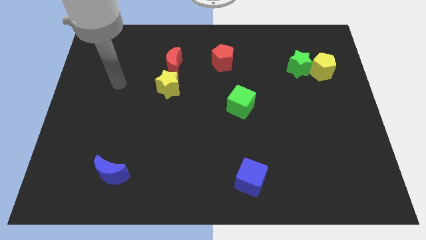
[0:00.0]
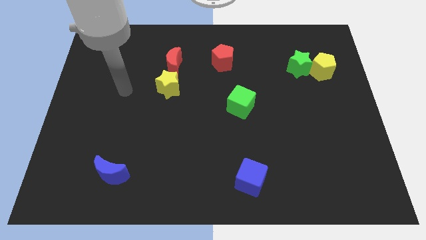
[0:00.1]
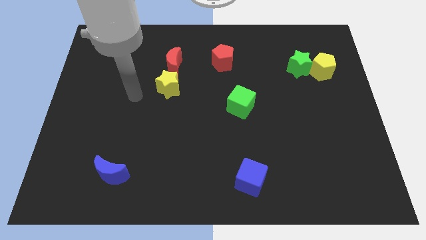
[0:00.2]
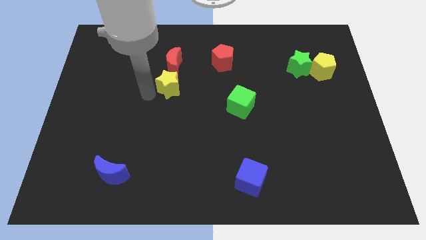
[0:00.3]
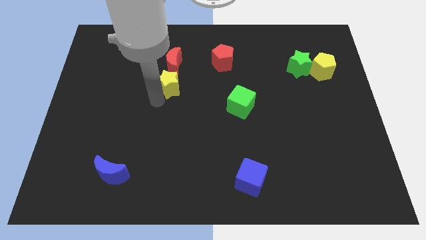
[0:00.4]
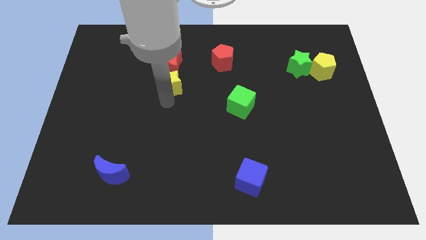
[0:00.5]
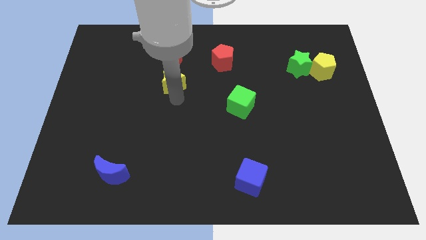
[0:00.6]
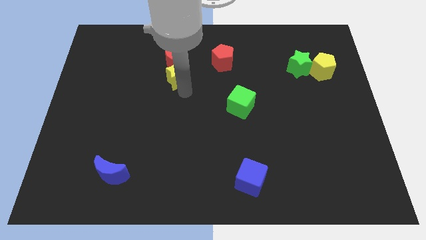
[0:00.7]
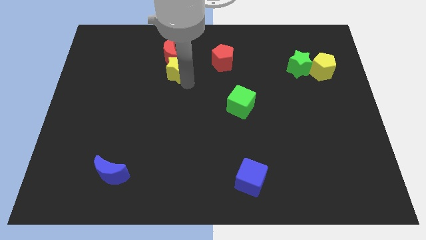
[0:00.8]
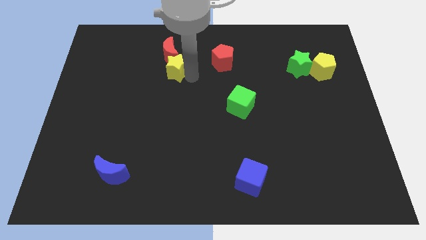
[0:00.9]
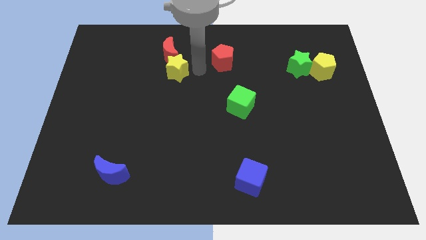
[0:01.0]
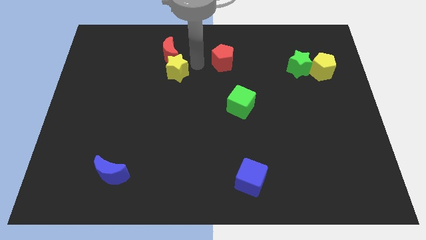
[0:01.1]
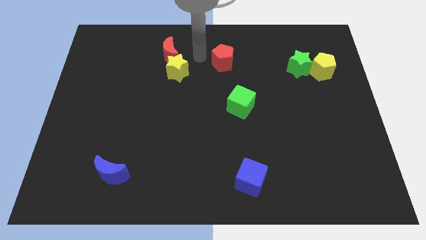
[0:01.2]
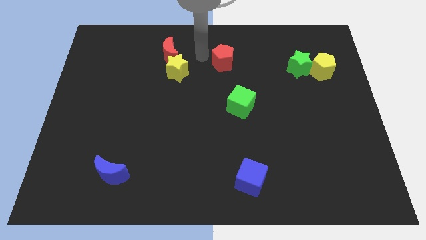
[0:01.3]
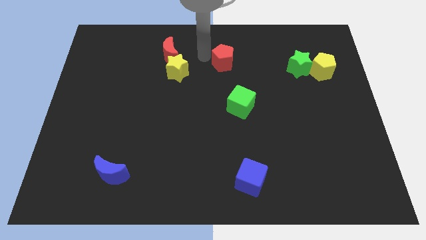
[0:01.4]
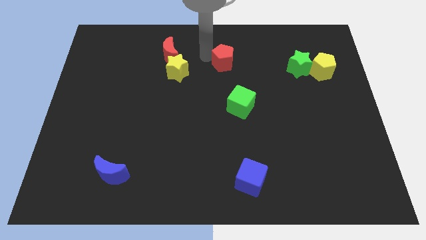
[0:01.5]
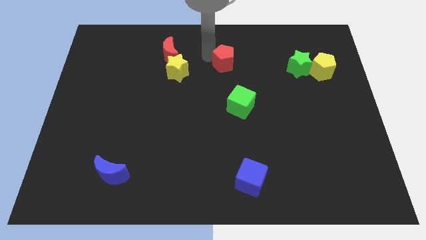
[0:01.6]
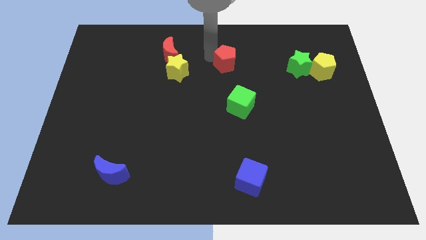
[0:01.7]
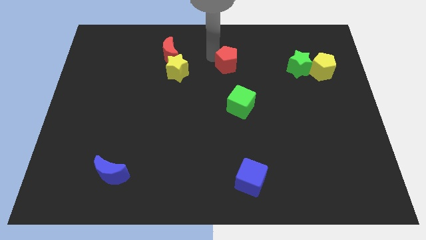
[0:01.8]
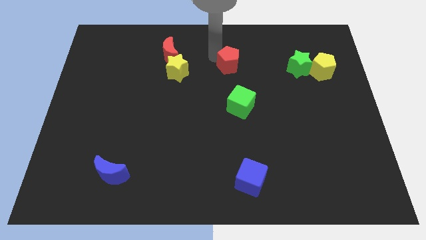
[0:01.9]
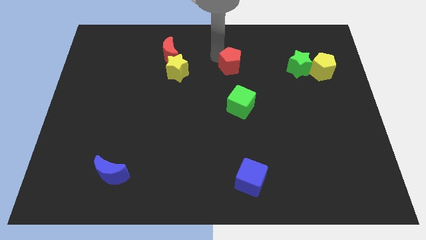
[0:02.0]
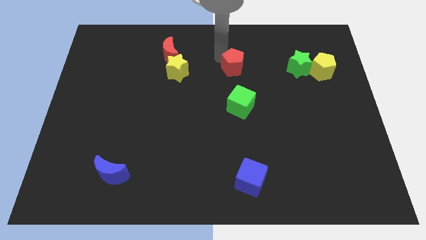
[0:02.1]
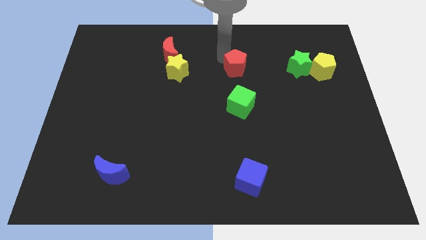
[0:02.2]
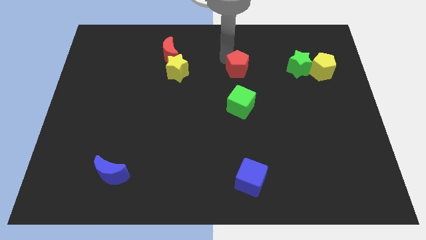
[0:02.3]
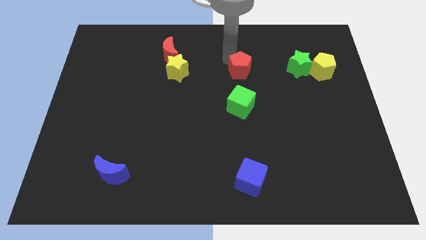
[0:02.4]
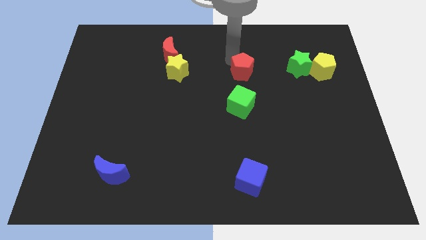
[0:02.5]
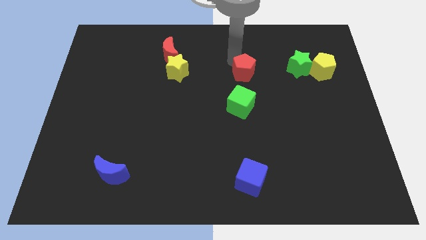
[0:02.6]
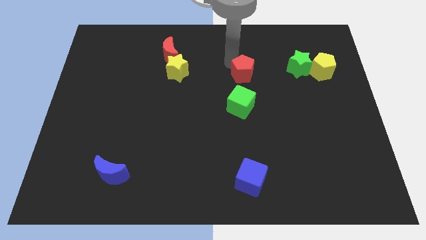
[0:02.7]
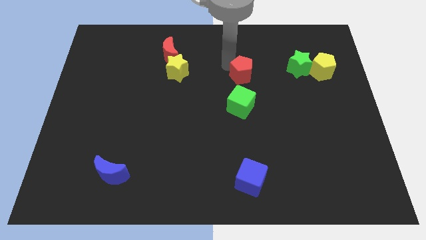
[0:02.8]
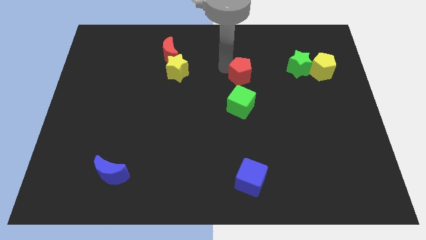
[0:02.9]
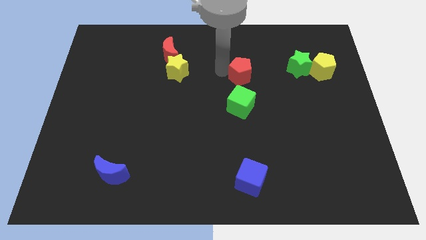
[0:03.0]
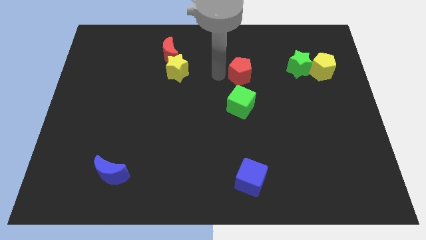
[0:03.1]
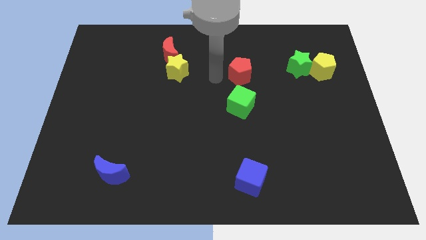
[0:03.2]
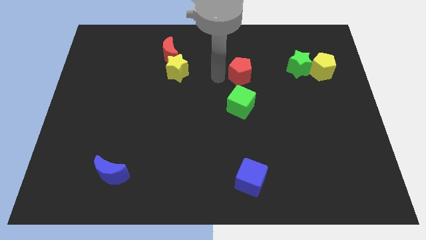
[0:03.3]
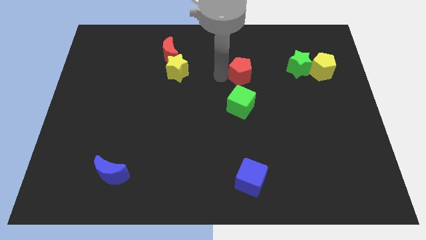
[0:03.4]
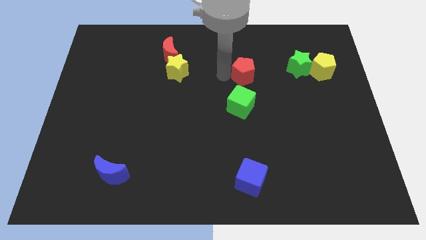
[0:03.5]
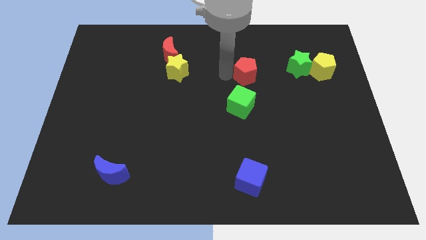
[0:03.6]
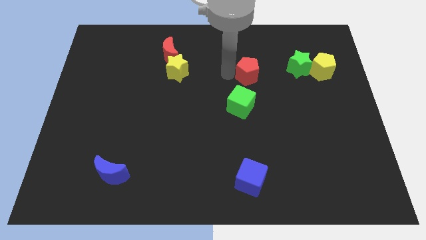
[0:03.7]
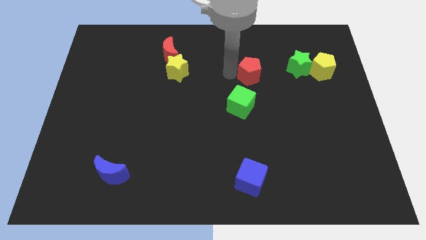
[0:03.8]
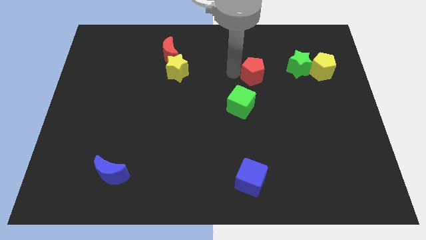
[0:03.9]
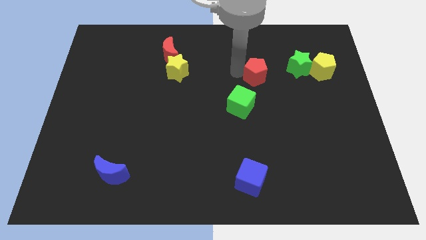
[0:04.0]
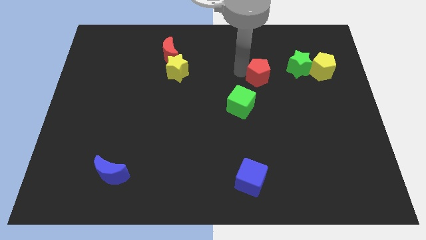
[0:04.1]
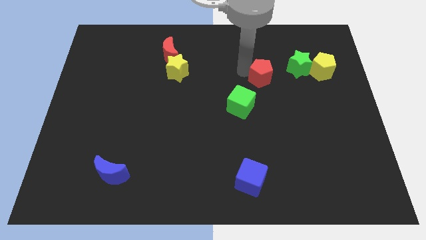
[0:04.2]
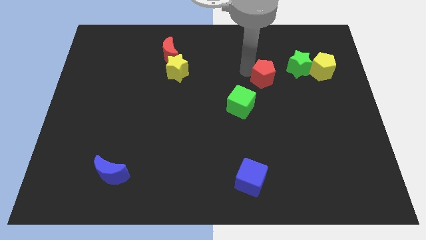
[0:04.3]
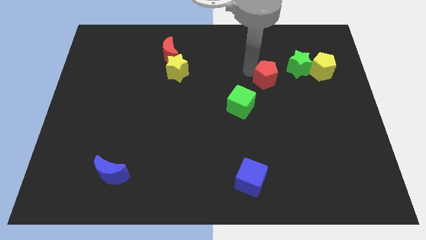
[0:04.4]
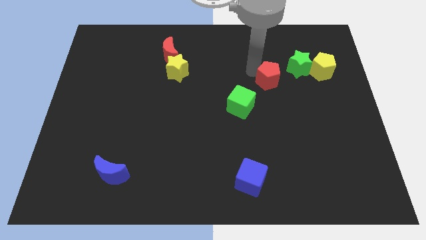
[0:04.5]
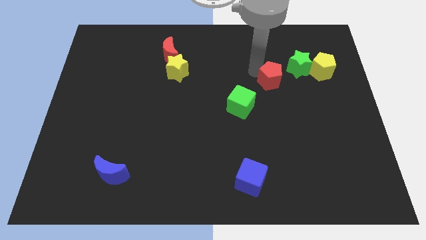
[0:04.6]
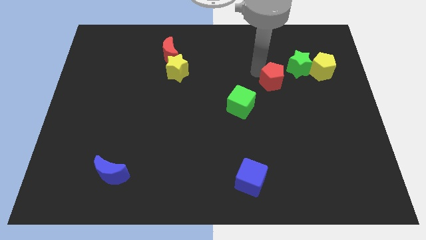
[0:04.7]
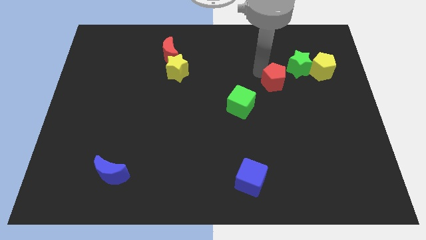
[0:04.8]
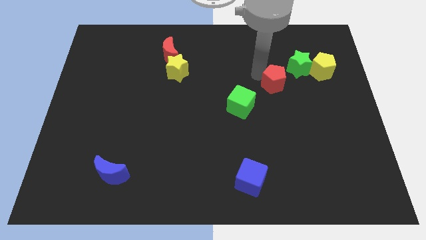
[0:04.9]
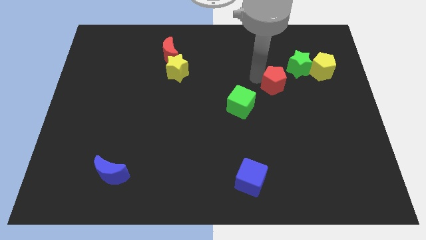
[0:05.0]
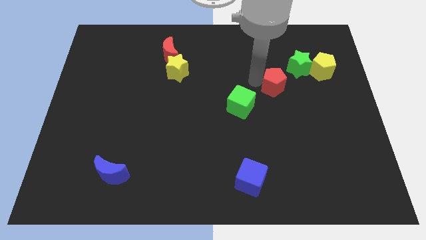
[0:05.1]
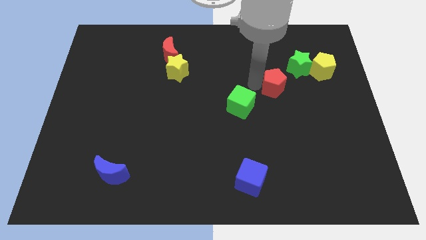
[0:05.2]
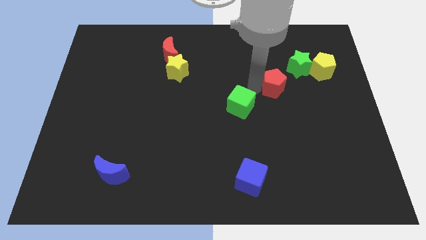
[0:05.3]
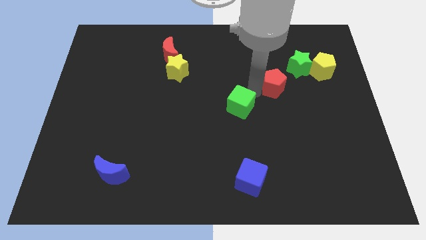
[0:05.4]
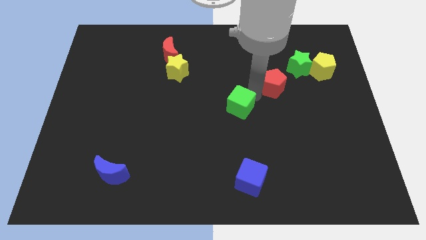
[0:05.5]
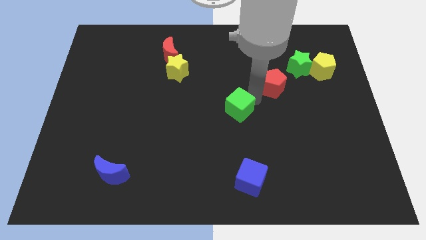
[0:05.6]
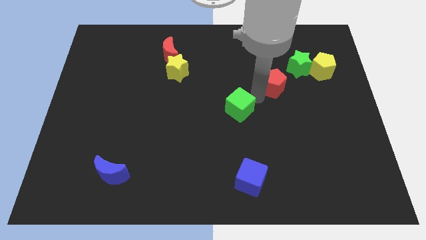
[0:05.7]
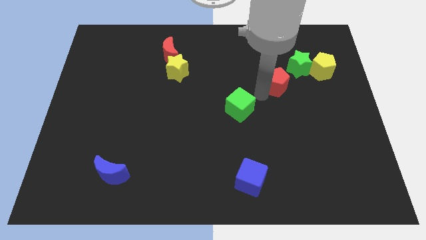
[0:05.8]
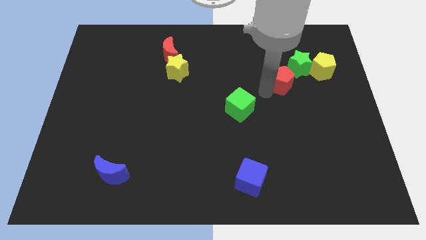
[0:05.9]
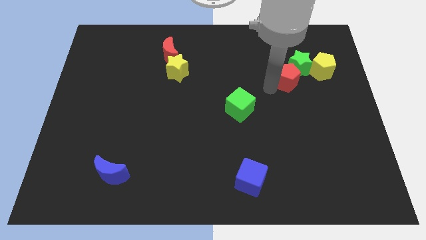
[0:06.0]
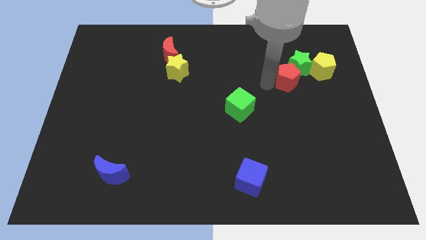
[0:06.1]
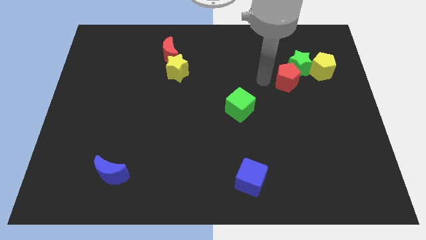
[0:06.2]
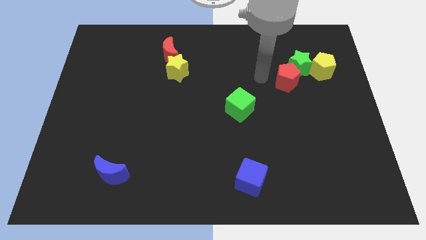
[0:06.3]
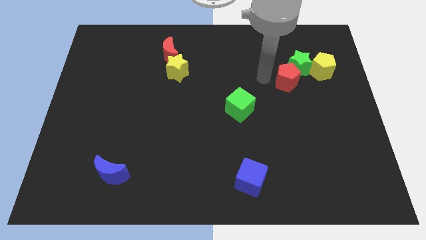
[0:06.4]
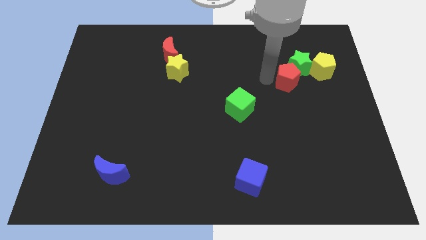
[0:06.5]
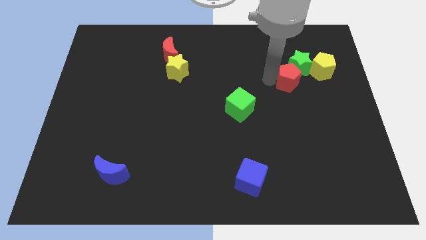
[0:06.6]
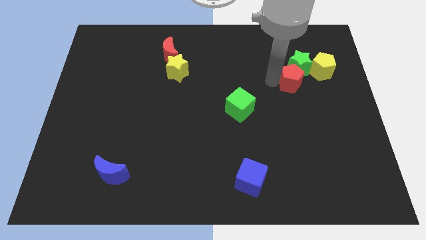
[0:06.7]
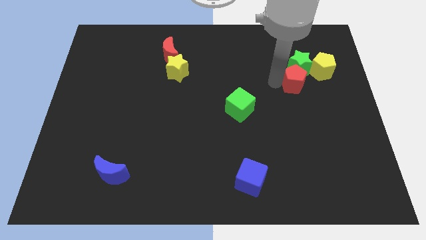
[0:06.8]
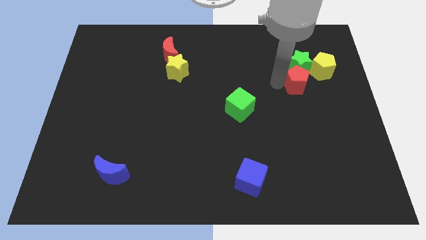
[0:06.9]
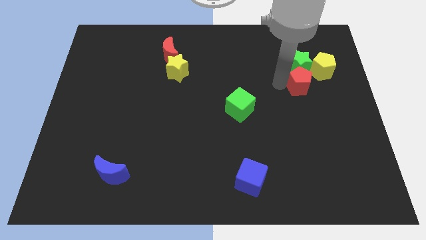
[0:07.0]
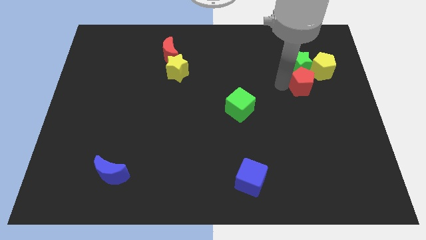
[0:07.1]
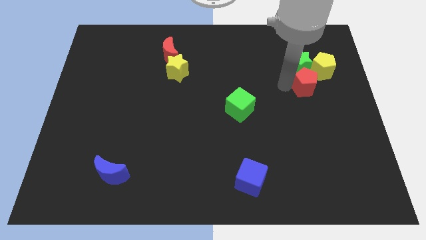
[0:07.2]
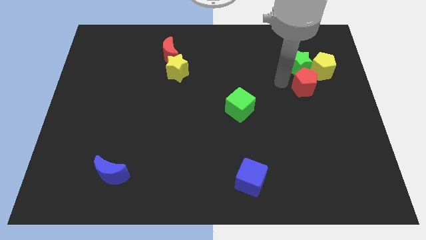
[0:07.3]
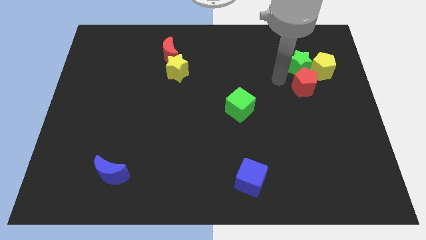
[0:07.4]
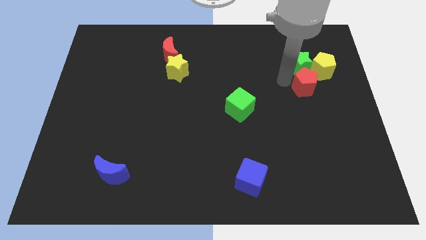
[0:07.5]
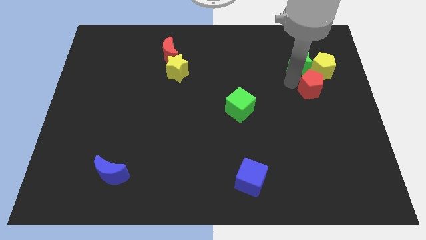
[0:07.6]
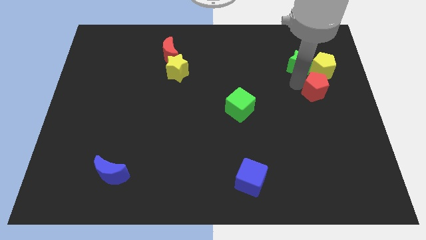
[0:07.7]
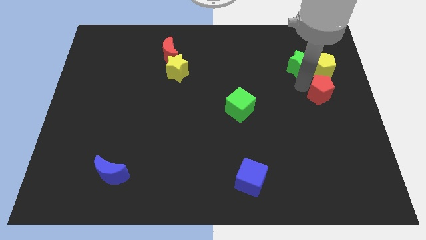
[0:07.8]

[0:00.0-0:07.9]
move the red pentagon to the right side
